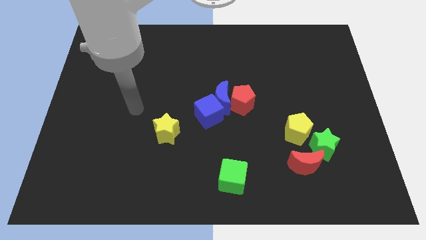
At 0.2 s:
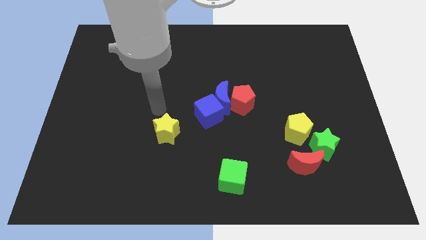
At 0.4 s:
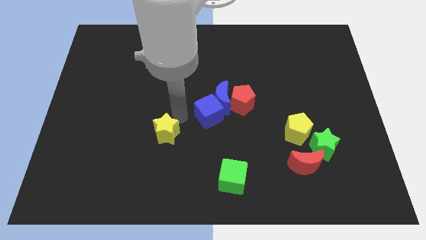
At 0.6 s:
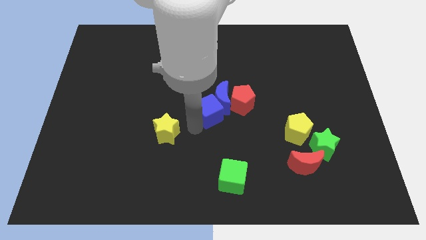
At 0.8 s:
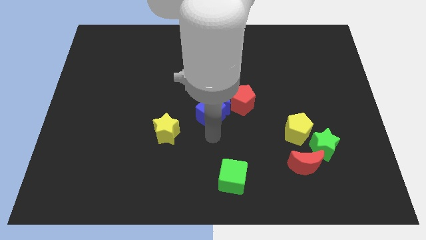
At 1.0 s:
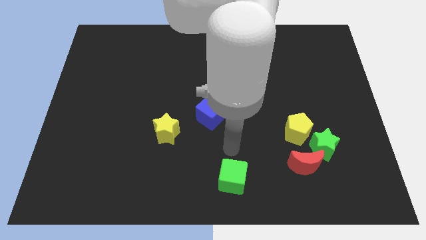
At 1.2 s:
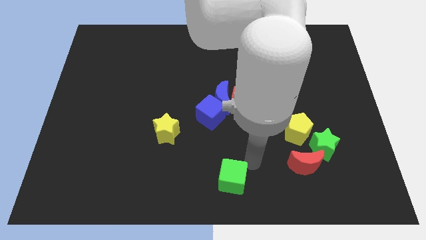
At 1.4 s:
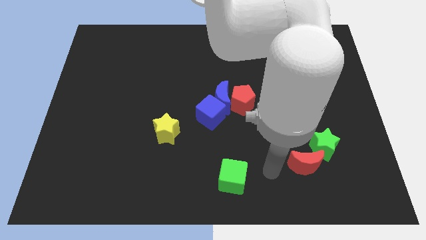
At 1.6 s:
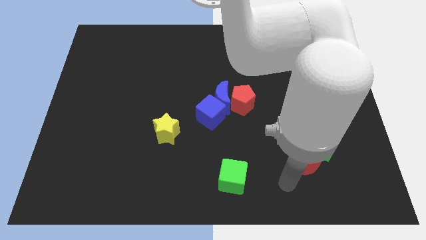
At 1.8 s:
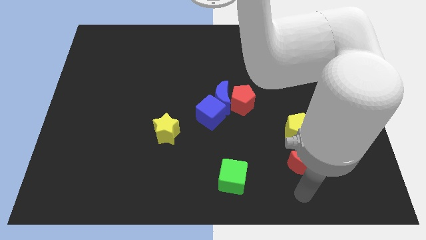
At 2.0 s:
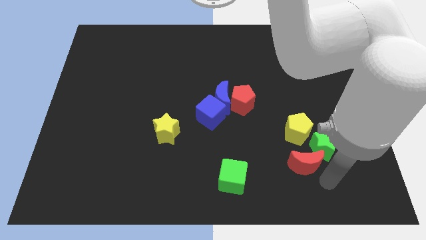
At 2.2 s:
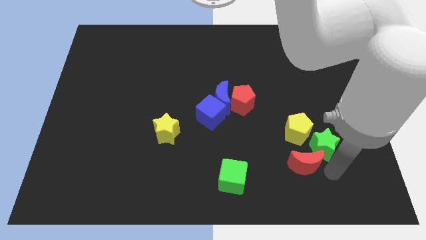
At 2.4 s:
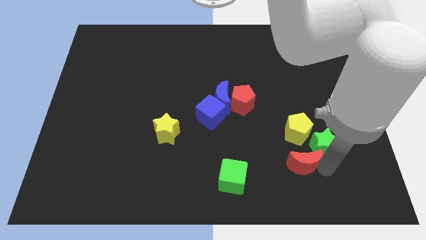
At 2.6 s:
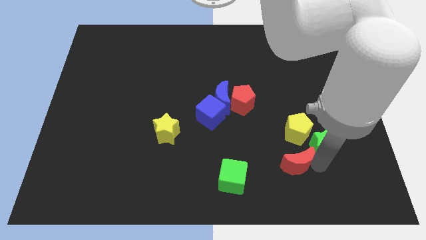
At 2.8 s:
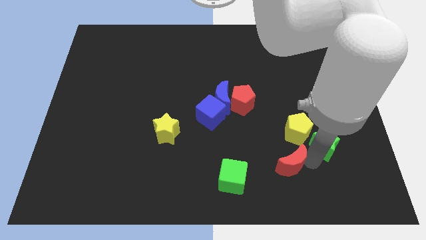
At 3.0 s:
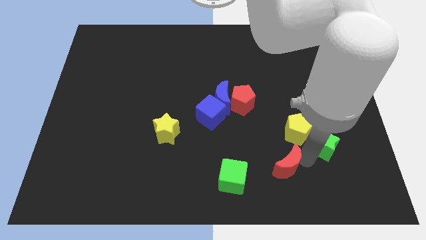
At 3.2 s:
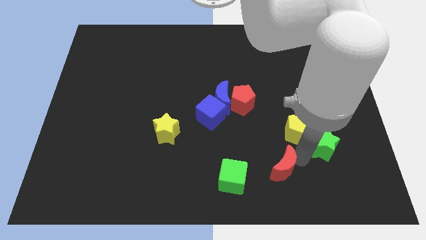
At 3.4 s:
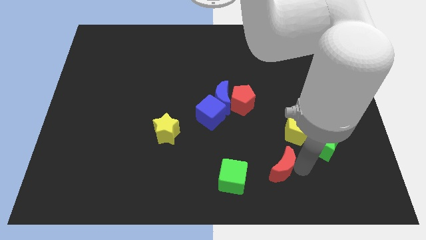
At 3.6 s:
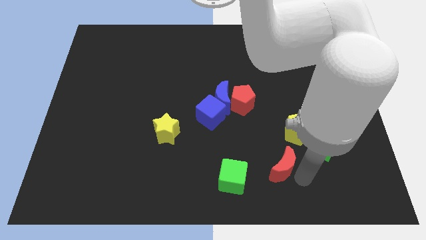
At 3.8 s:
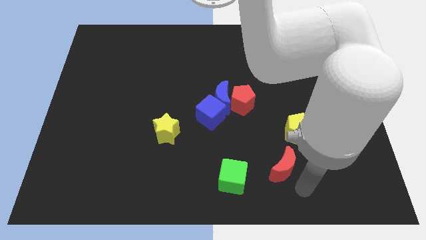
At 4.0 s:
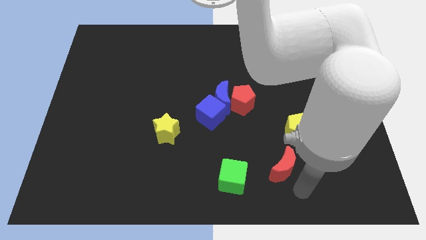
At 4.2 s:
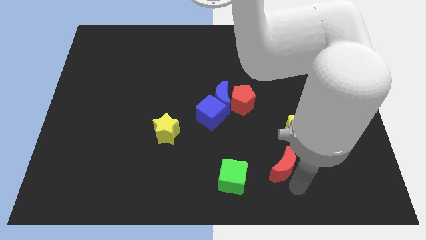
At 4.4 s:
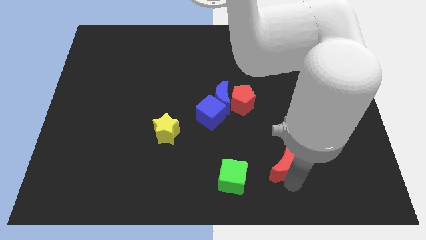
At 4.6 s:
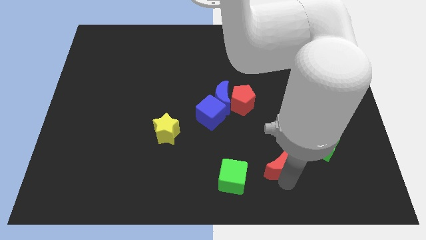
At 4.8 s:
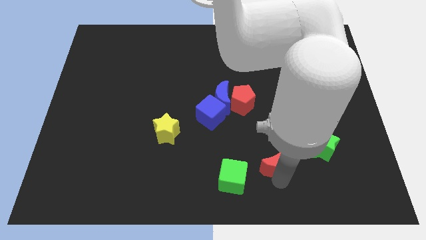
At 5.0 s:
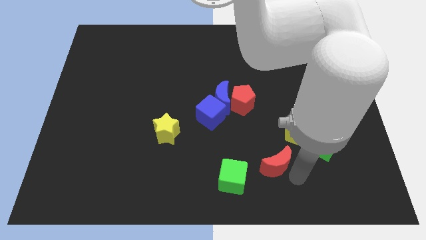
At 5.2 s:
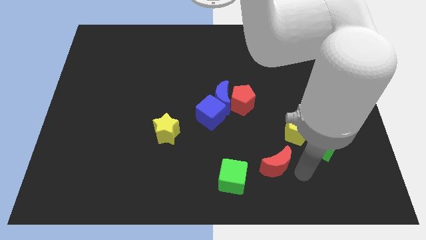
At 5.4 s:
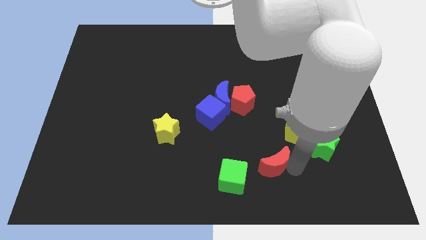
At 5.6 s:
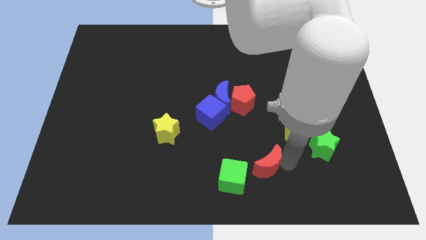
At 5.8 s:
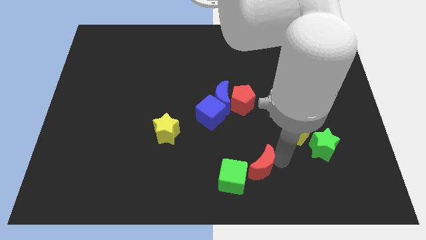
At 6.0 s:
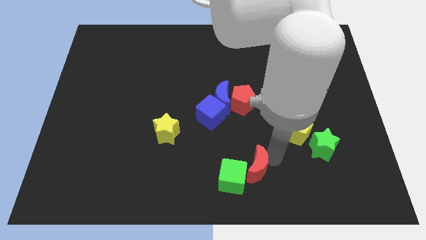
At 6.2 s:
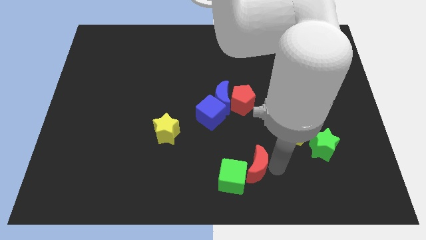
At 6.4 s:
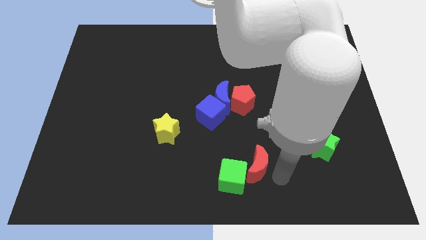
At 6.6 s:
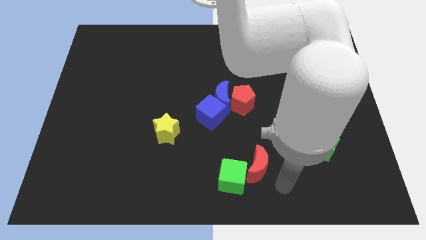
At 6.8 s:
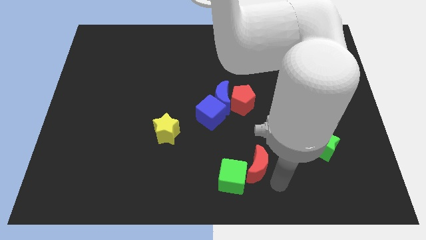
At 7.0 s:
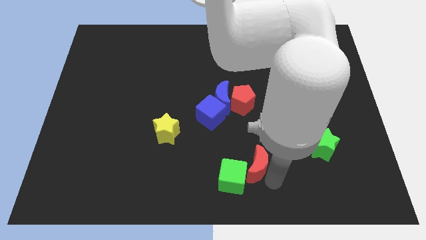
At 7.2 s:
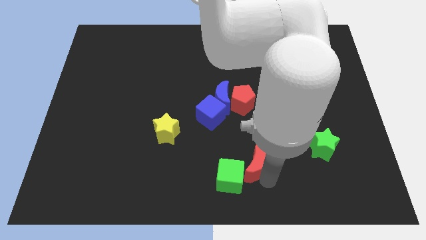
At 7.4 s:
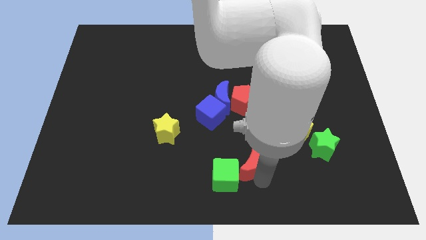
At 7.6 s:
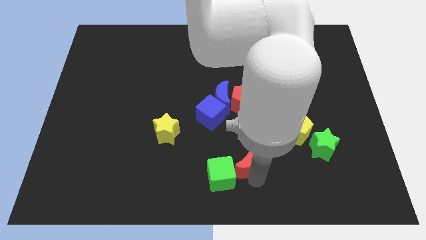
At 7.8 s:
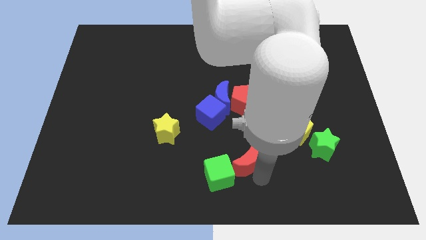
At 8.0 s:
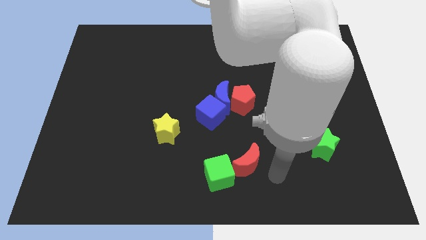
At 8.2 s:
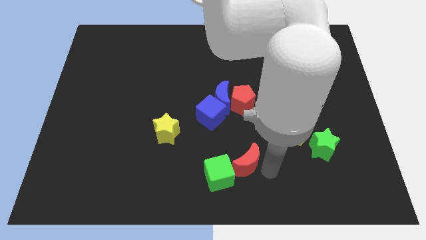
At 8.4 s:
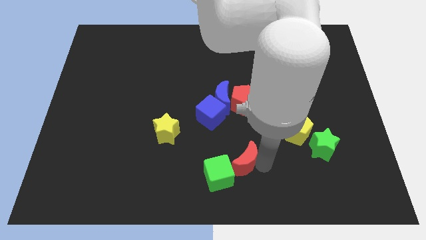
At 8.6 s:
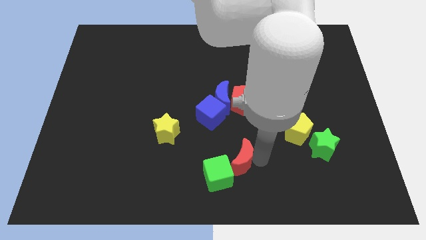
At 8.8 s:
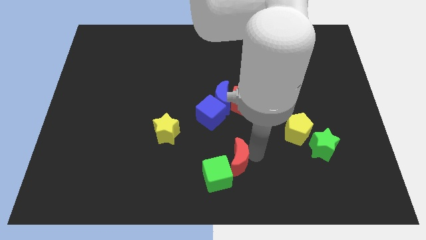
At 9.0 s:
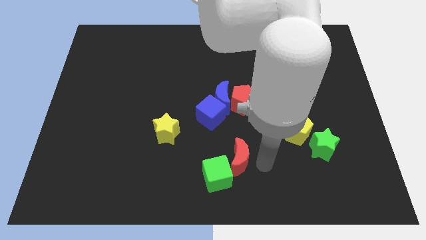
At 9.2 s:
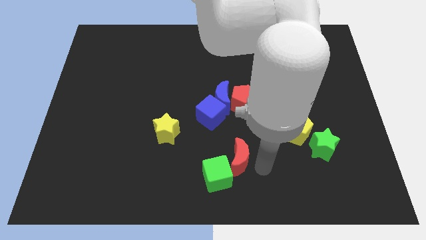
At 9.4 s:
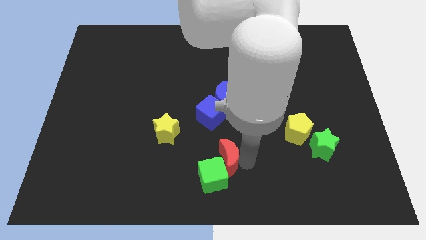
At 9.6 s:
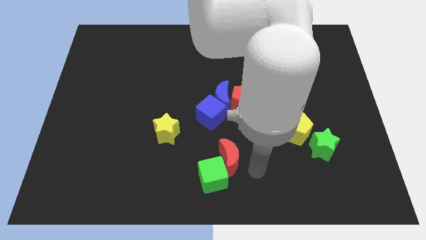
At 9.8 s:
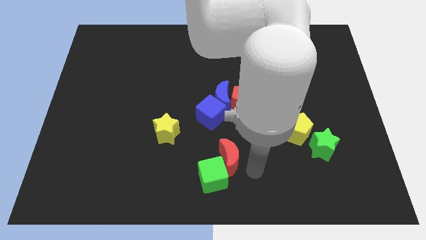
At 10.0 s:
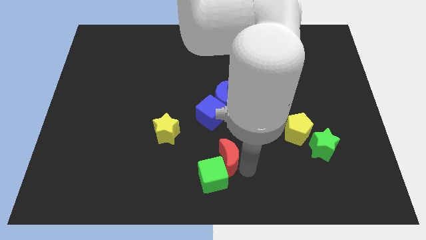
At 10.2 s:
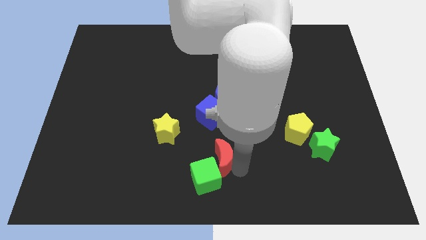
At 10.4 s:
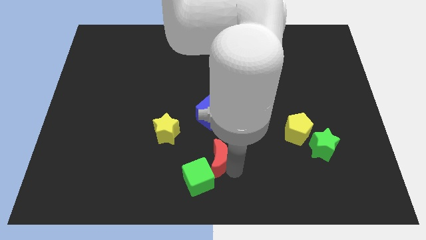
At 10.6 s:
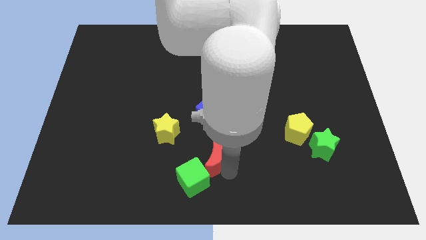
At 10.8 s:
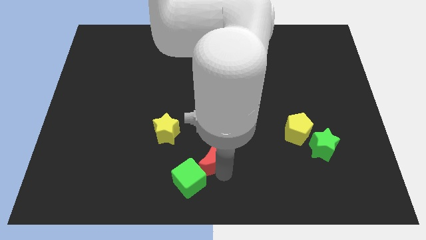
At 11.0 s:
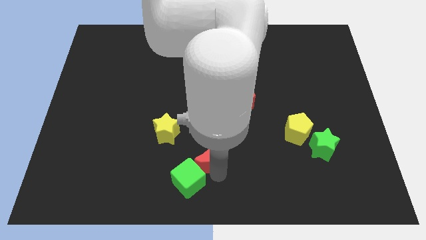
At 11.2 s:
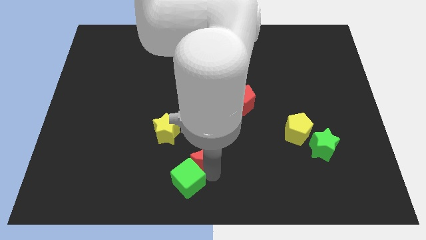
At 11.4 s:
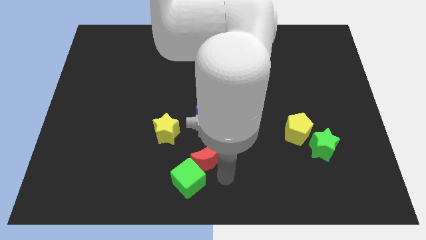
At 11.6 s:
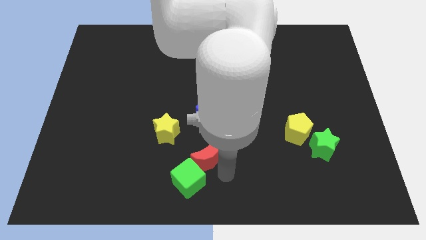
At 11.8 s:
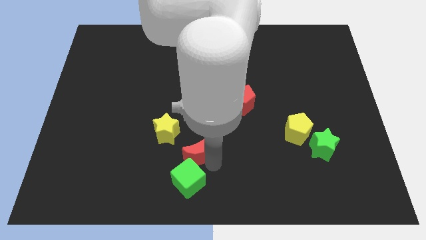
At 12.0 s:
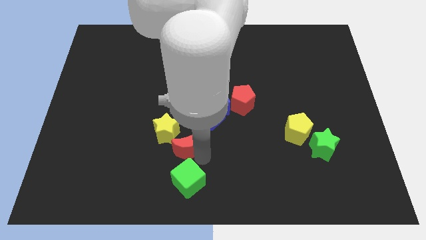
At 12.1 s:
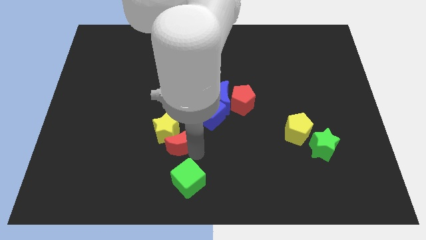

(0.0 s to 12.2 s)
slide the red moon close to the yellow star

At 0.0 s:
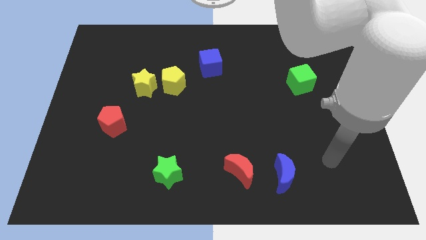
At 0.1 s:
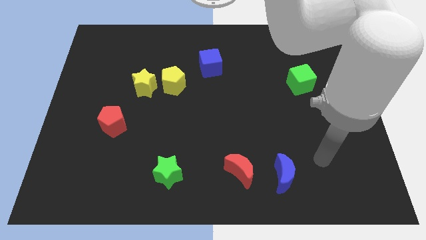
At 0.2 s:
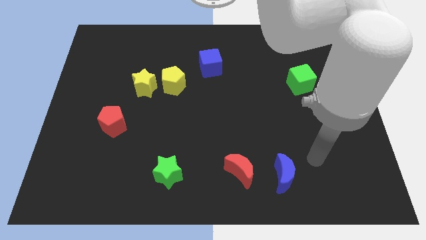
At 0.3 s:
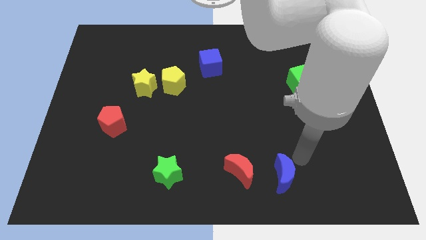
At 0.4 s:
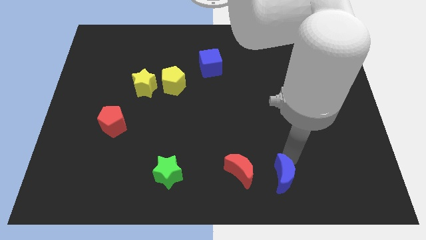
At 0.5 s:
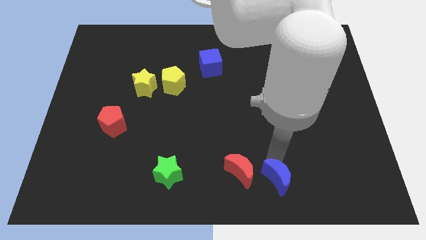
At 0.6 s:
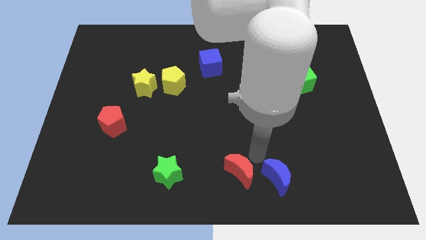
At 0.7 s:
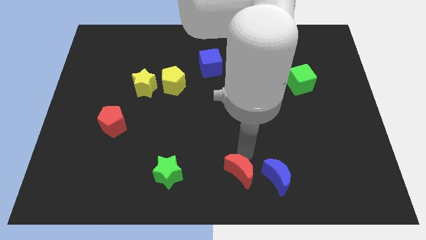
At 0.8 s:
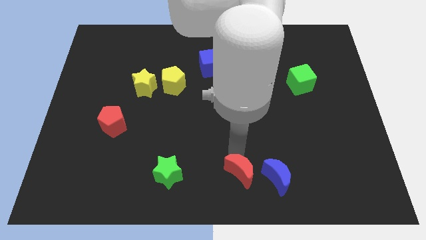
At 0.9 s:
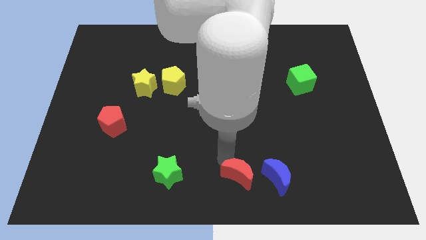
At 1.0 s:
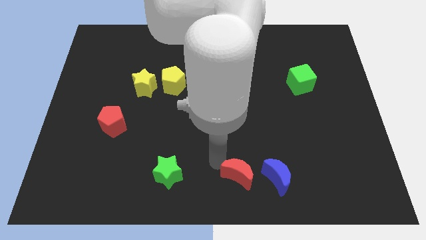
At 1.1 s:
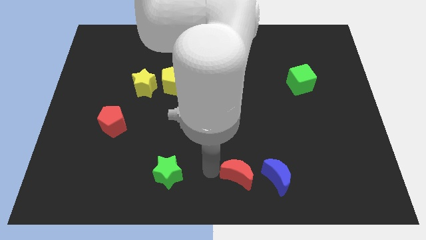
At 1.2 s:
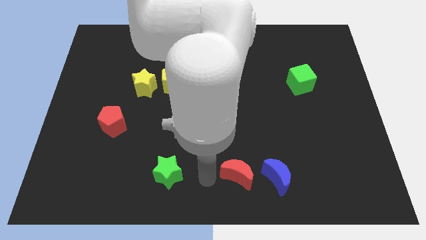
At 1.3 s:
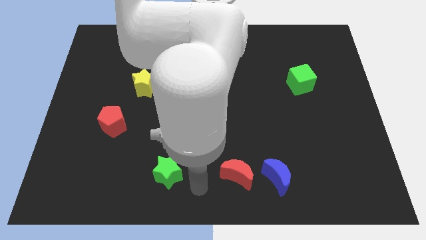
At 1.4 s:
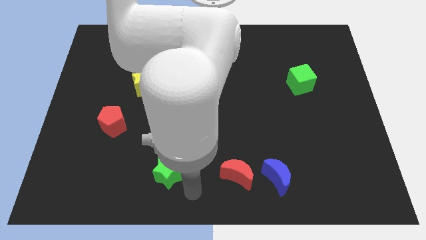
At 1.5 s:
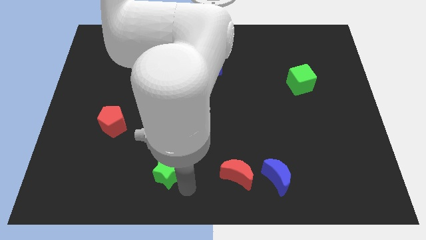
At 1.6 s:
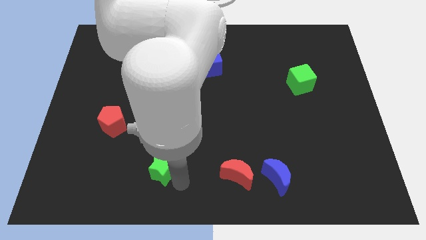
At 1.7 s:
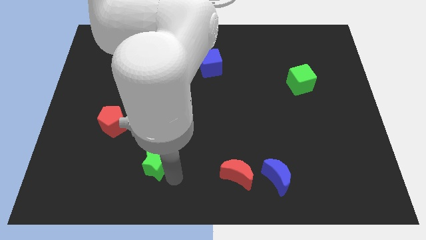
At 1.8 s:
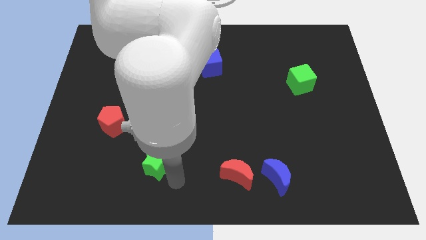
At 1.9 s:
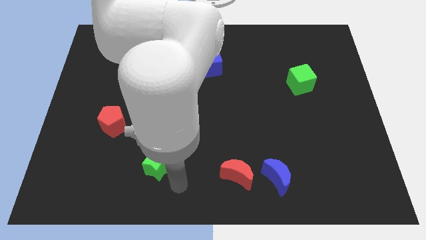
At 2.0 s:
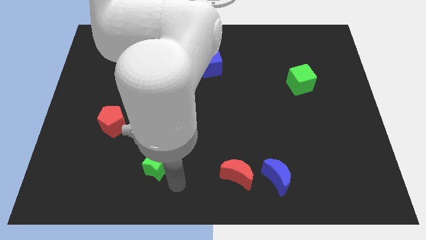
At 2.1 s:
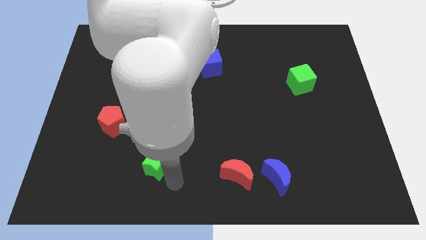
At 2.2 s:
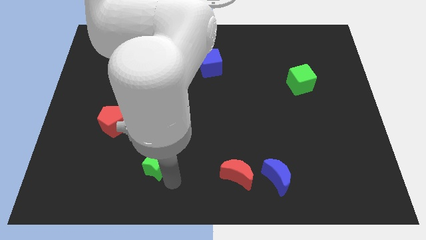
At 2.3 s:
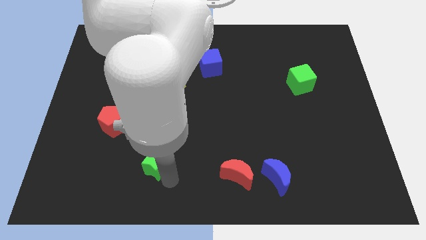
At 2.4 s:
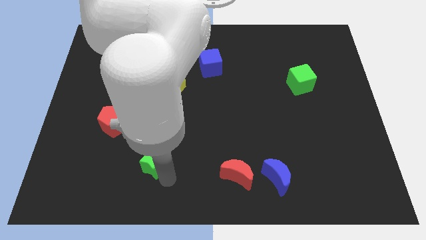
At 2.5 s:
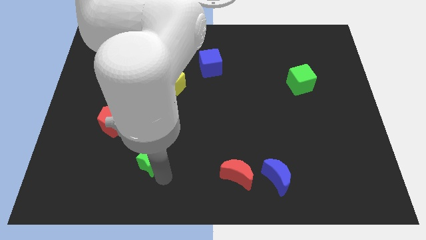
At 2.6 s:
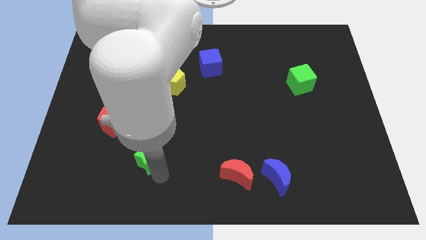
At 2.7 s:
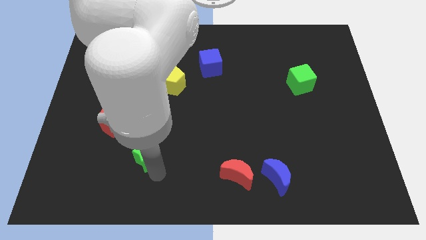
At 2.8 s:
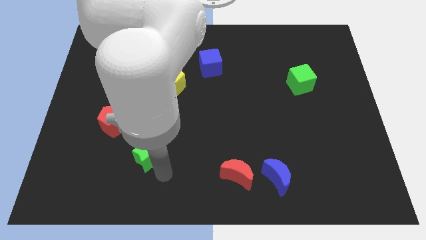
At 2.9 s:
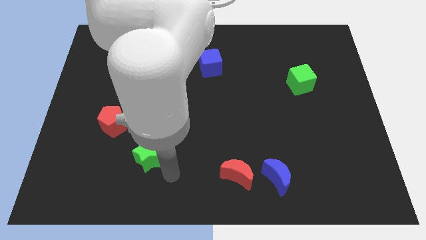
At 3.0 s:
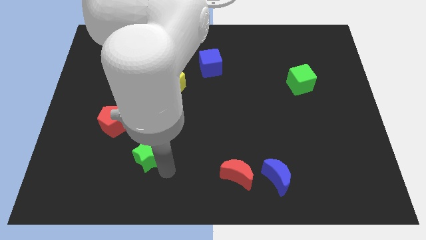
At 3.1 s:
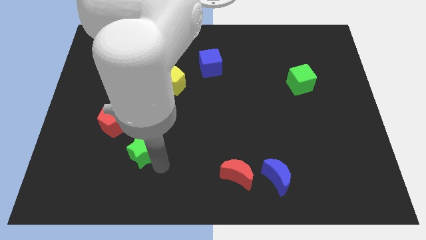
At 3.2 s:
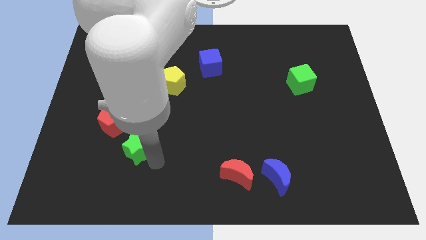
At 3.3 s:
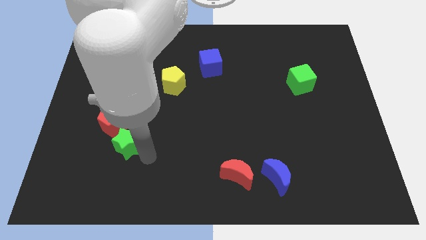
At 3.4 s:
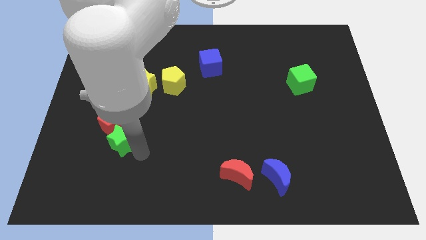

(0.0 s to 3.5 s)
put the green star towards the red pentagon
